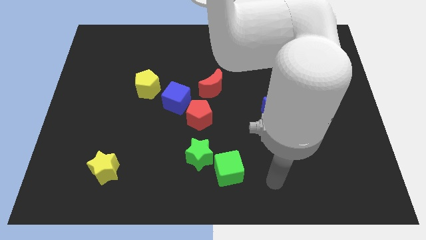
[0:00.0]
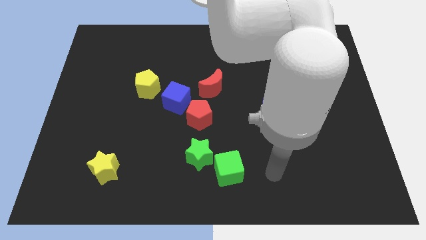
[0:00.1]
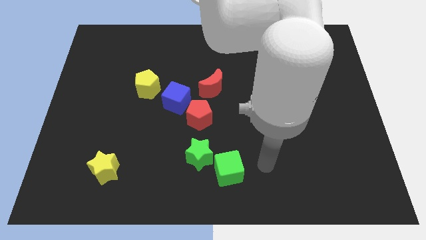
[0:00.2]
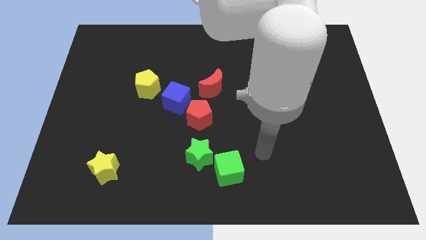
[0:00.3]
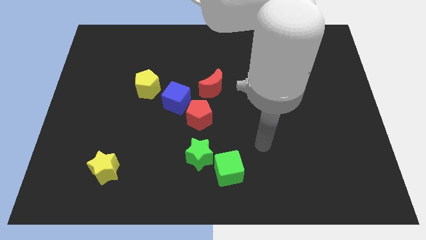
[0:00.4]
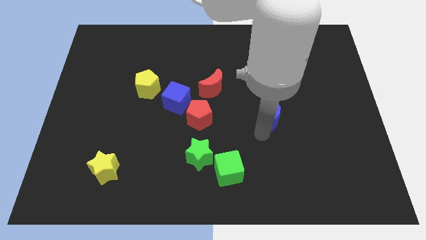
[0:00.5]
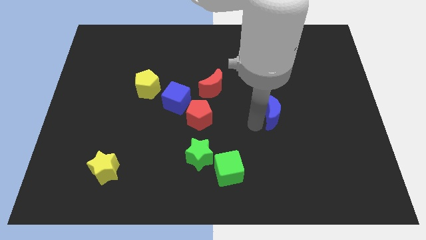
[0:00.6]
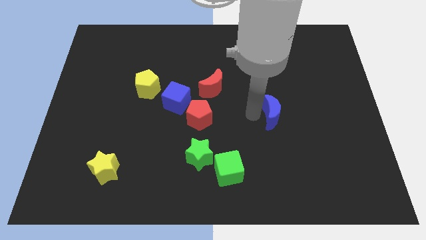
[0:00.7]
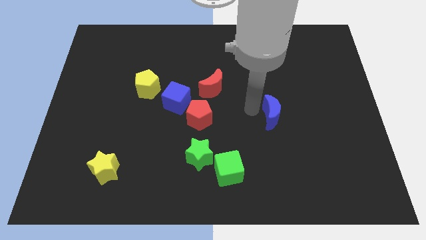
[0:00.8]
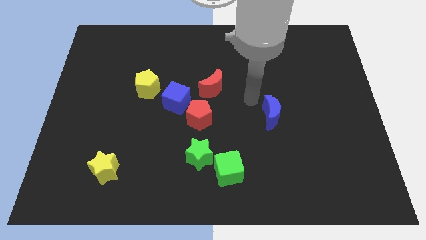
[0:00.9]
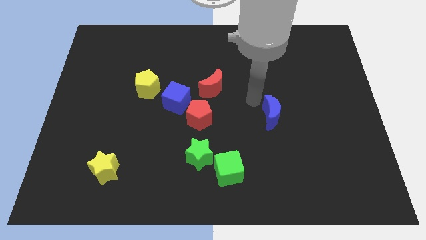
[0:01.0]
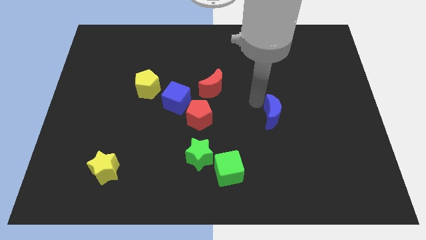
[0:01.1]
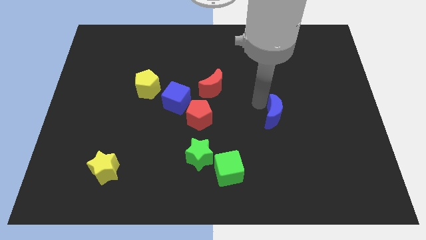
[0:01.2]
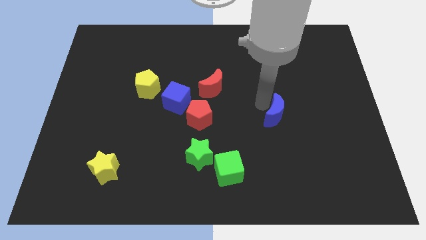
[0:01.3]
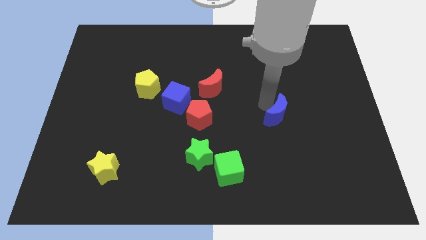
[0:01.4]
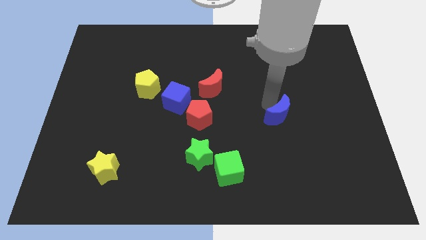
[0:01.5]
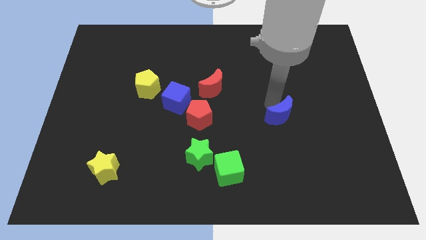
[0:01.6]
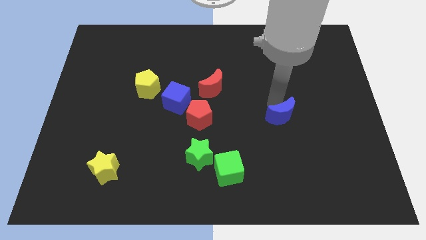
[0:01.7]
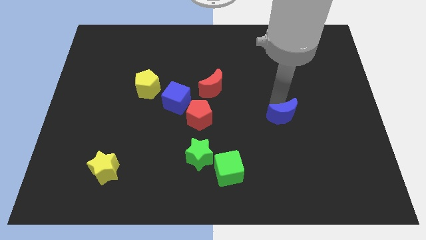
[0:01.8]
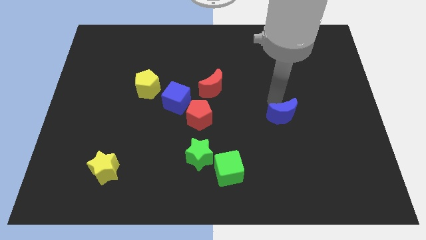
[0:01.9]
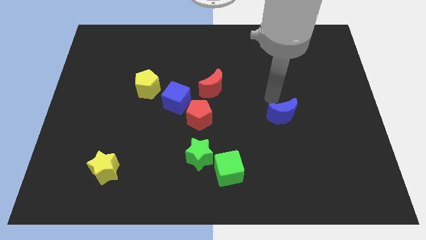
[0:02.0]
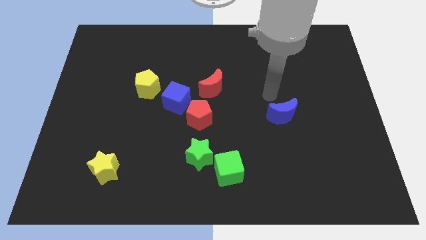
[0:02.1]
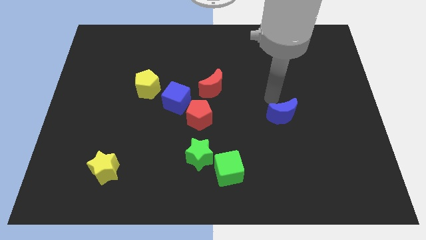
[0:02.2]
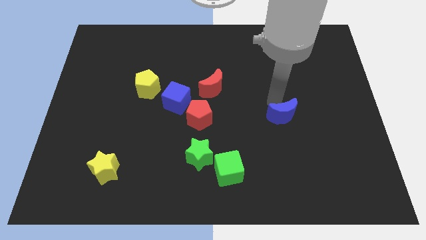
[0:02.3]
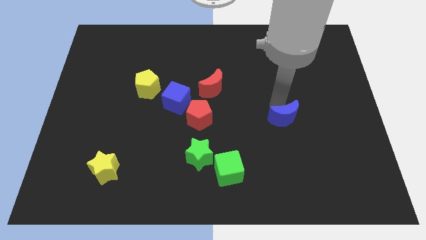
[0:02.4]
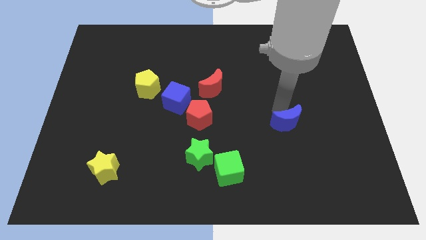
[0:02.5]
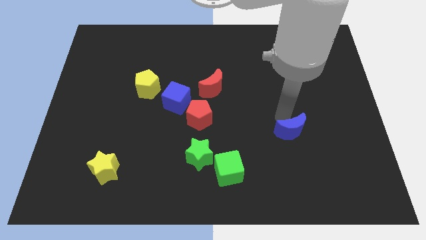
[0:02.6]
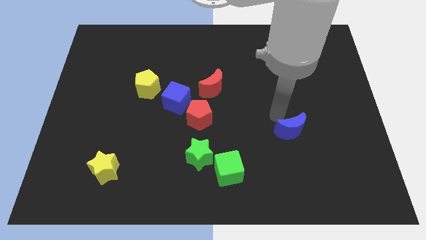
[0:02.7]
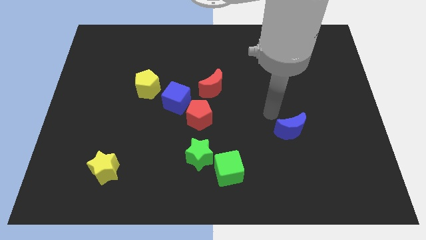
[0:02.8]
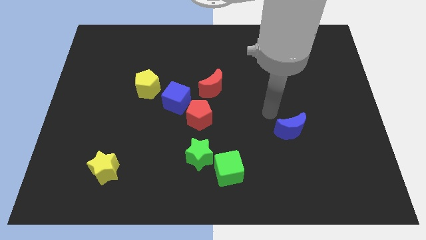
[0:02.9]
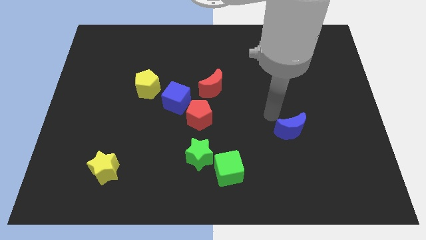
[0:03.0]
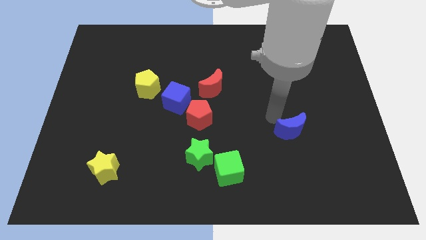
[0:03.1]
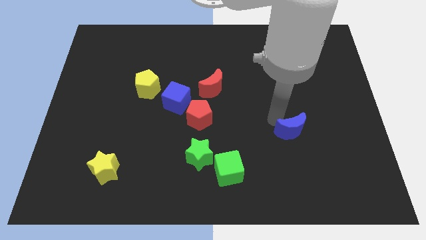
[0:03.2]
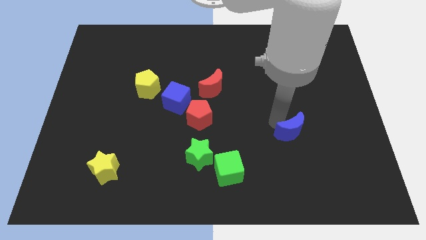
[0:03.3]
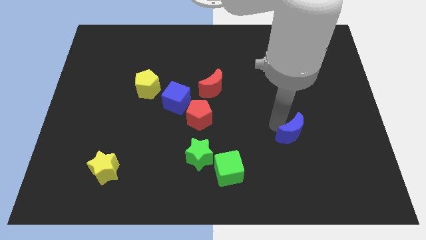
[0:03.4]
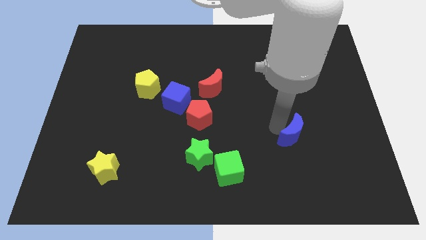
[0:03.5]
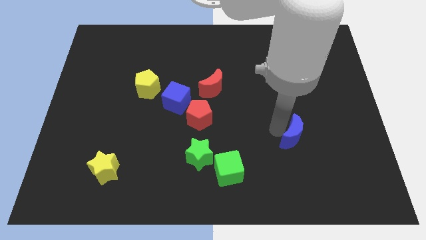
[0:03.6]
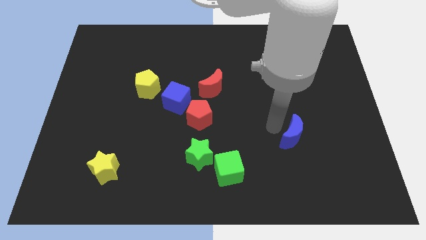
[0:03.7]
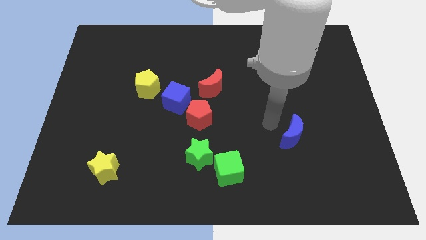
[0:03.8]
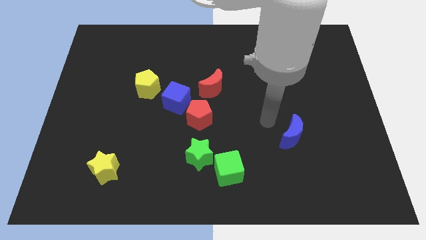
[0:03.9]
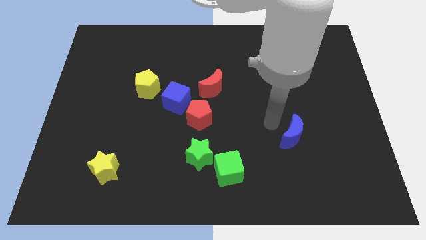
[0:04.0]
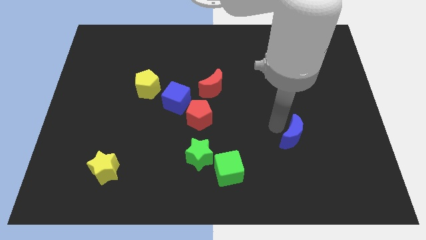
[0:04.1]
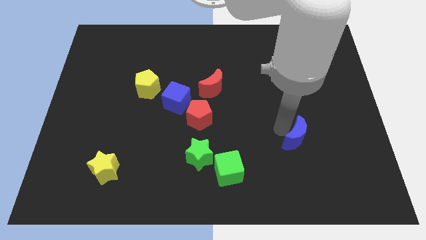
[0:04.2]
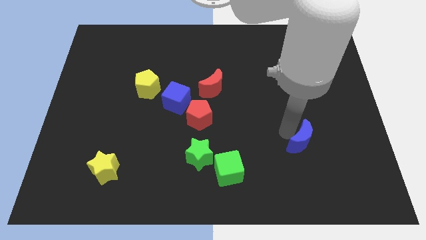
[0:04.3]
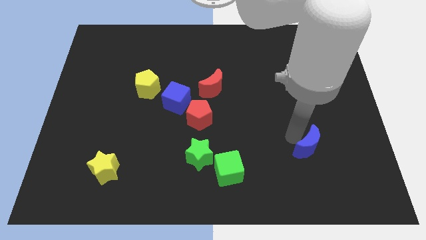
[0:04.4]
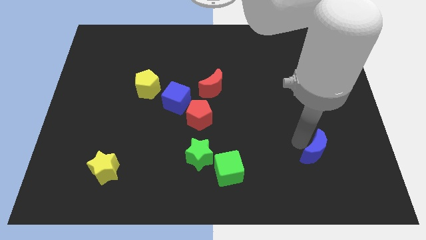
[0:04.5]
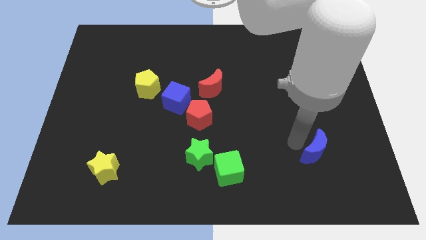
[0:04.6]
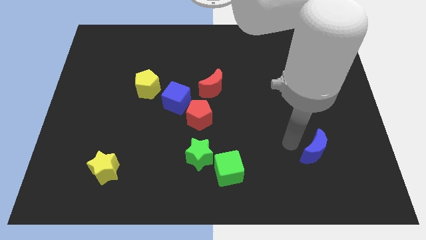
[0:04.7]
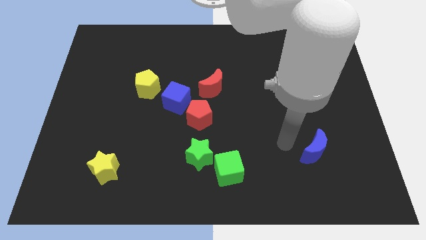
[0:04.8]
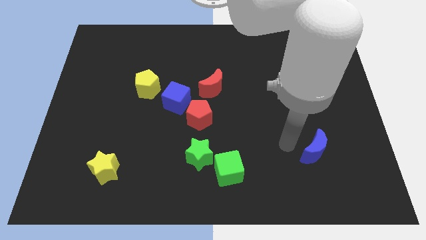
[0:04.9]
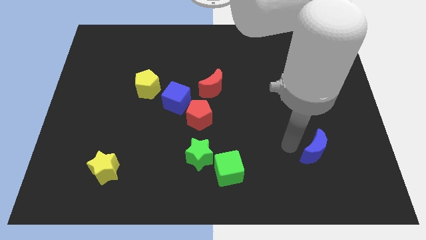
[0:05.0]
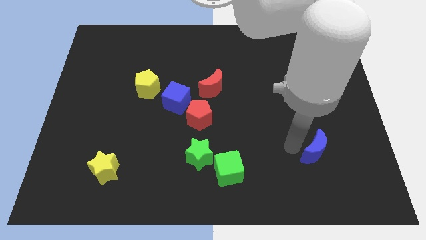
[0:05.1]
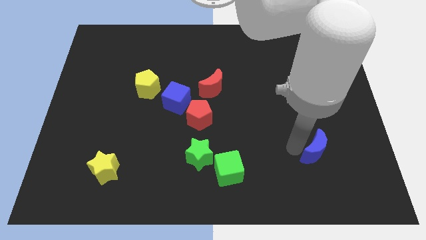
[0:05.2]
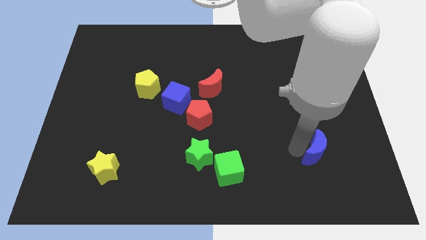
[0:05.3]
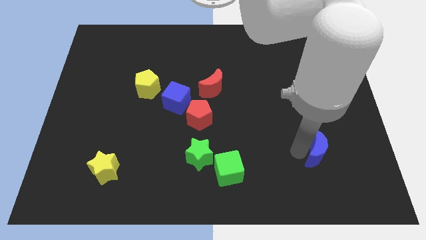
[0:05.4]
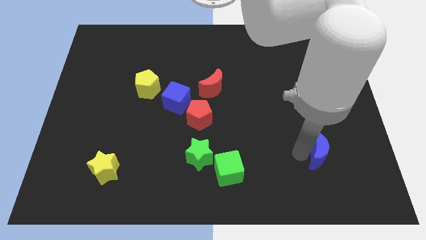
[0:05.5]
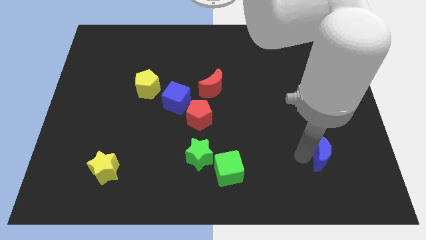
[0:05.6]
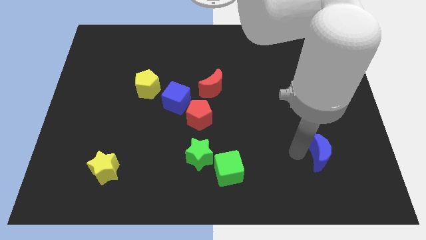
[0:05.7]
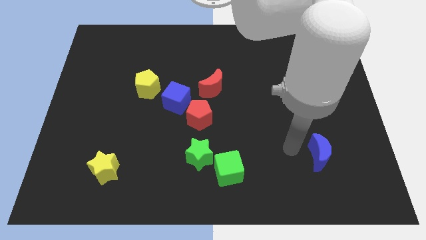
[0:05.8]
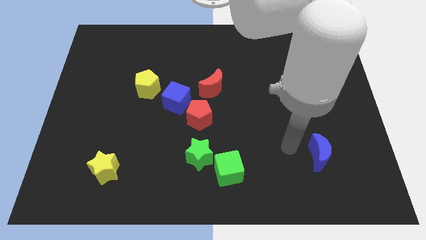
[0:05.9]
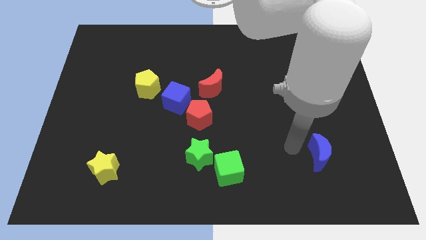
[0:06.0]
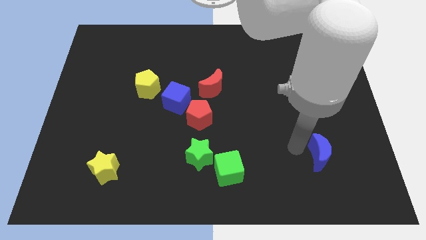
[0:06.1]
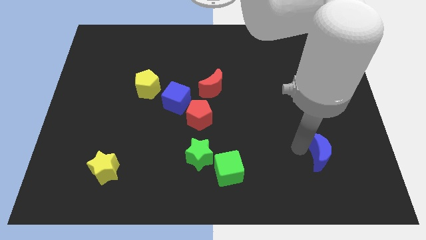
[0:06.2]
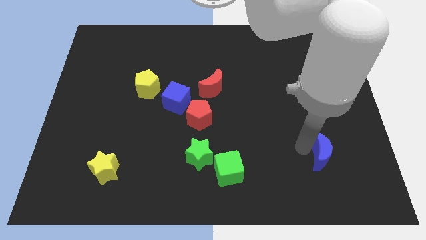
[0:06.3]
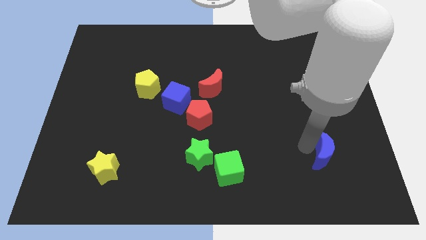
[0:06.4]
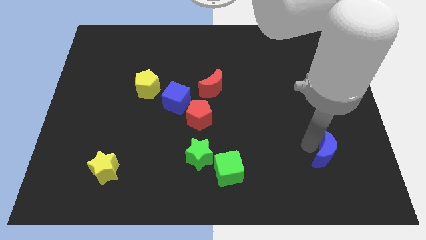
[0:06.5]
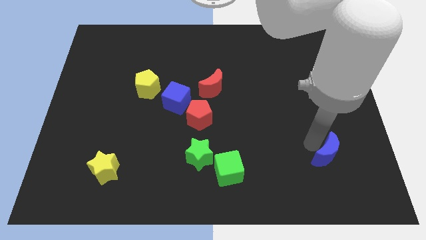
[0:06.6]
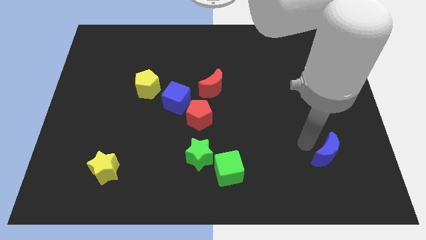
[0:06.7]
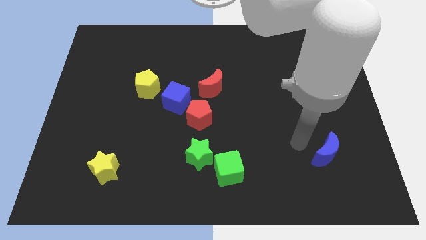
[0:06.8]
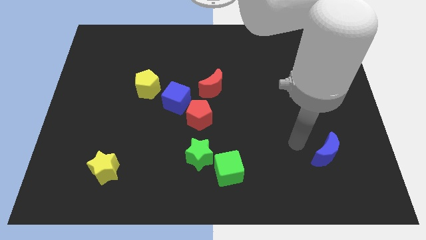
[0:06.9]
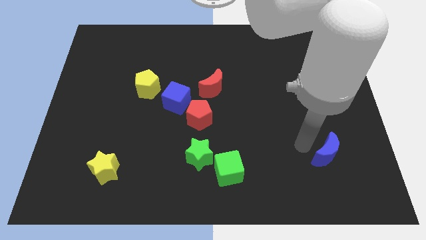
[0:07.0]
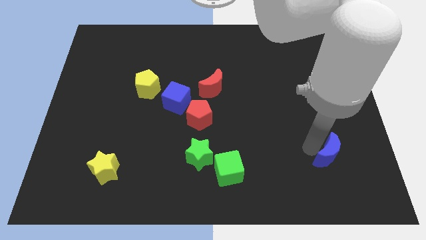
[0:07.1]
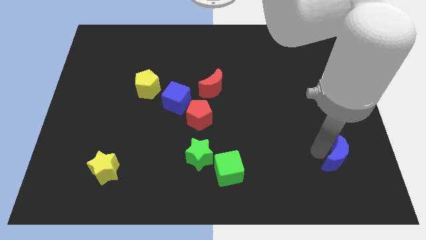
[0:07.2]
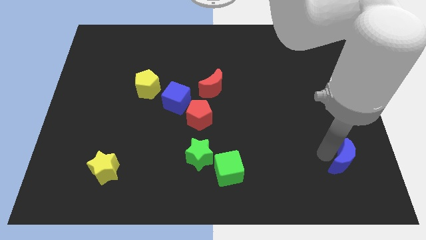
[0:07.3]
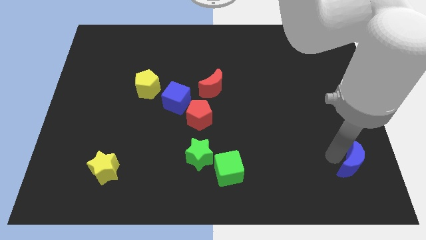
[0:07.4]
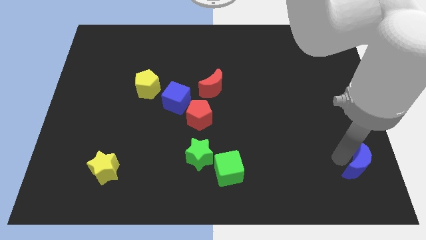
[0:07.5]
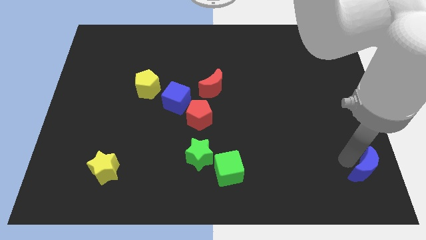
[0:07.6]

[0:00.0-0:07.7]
put the blue moon to the lower right corner
